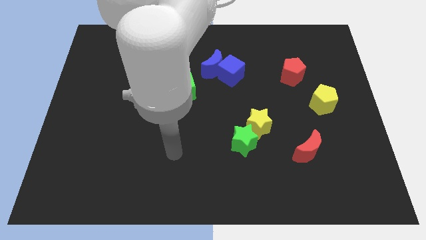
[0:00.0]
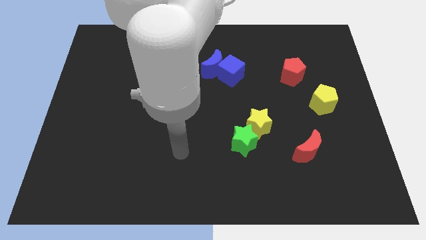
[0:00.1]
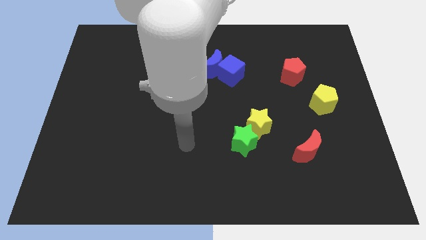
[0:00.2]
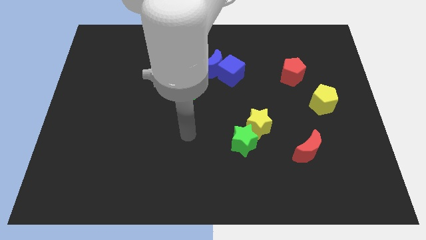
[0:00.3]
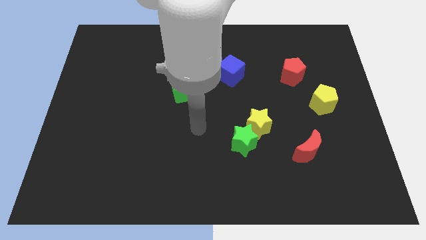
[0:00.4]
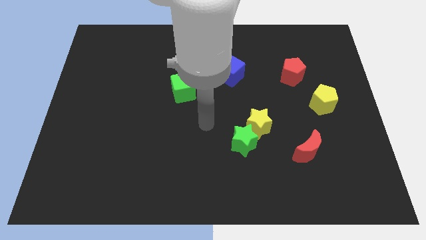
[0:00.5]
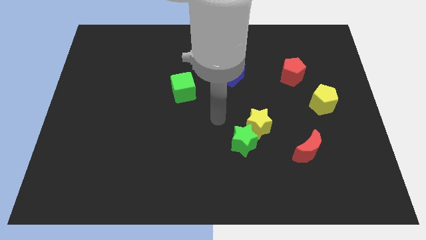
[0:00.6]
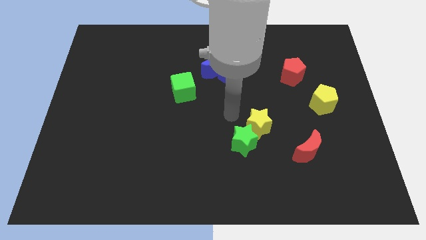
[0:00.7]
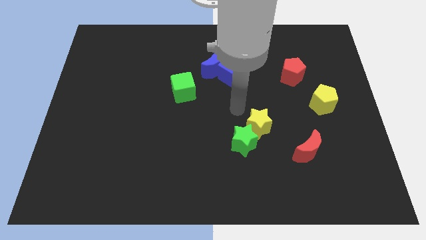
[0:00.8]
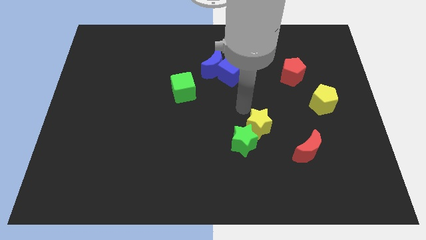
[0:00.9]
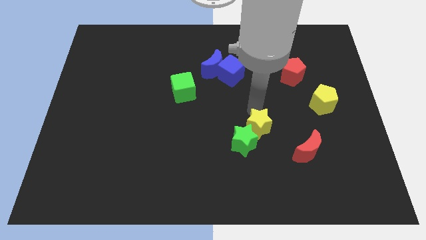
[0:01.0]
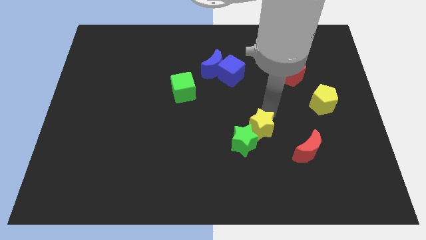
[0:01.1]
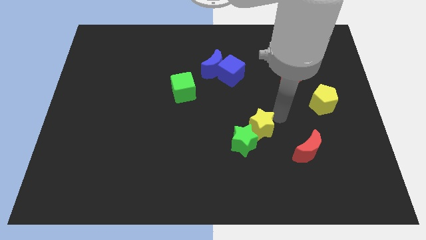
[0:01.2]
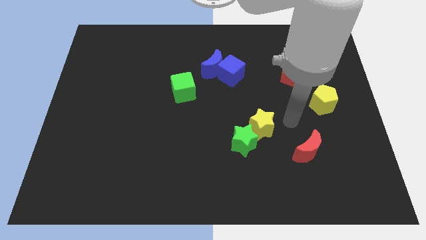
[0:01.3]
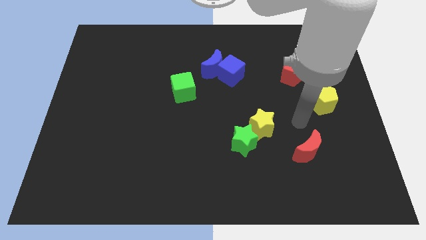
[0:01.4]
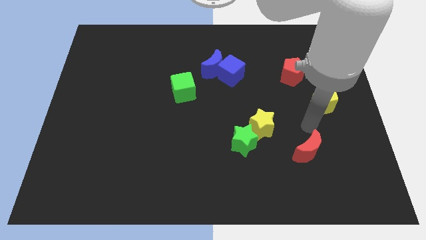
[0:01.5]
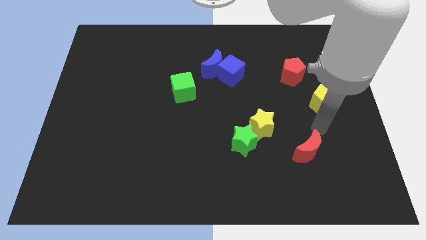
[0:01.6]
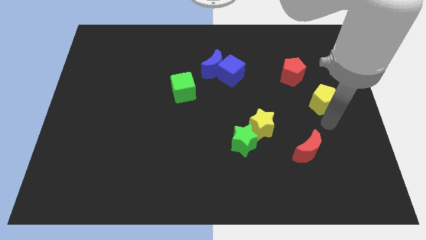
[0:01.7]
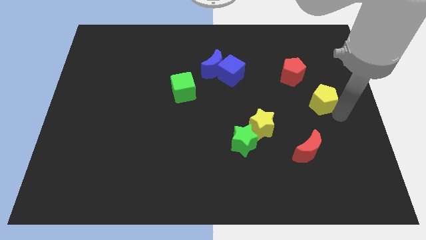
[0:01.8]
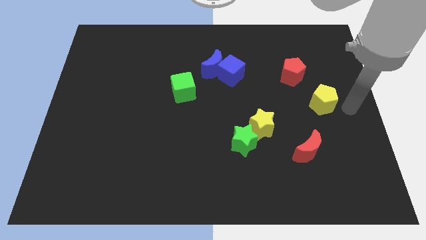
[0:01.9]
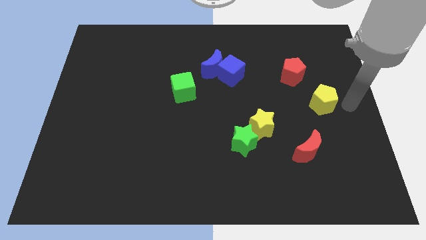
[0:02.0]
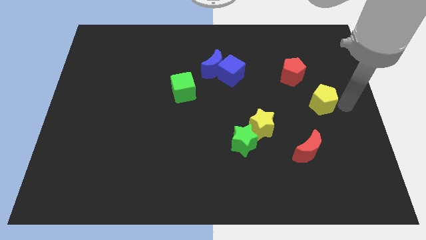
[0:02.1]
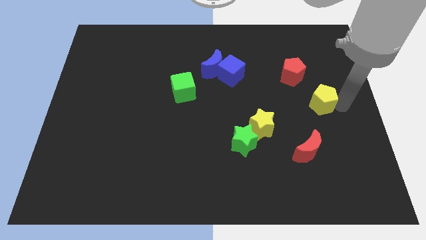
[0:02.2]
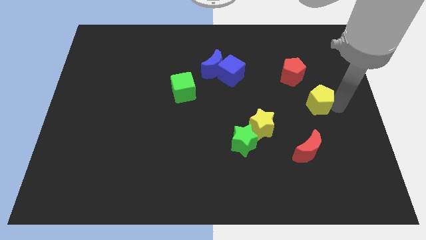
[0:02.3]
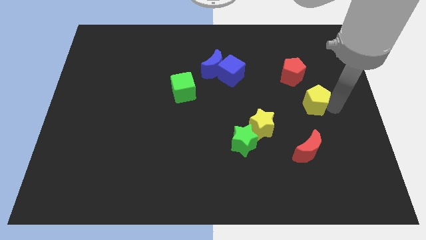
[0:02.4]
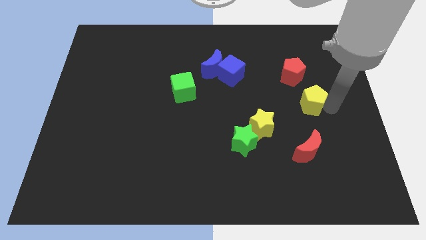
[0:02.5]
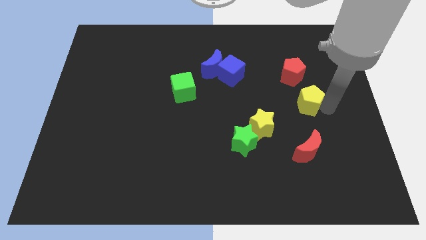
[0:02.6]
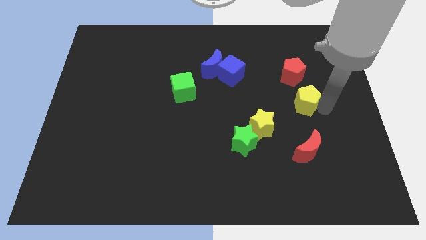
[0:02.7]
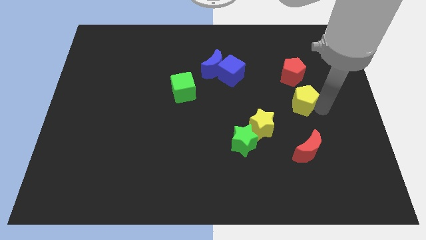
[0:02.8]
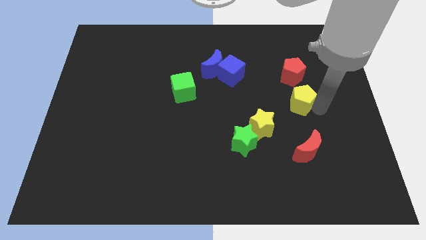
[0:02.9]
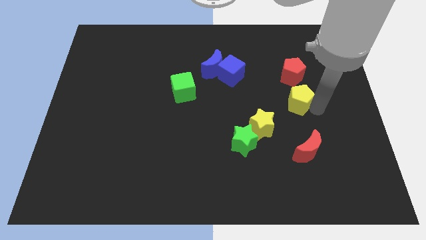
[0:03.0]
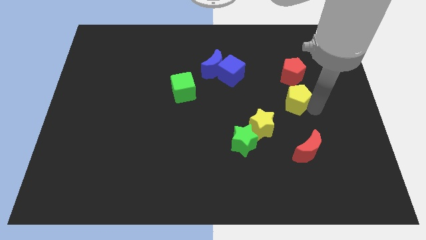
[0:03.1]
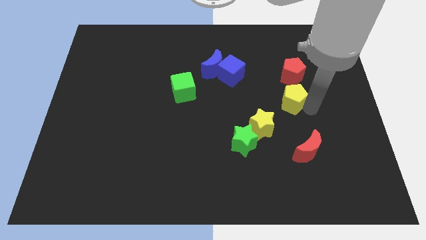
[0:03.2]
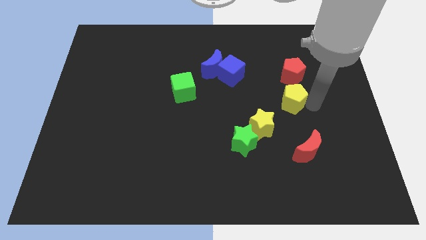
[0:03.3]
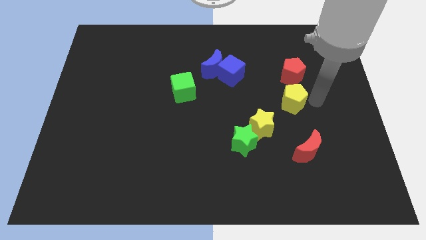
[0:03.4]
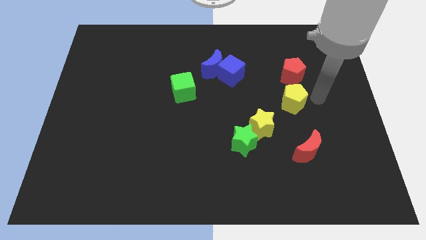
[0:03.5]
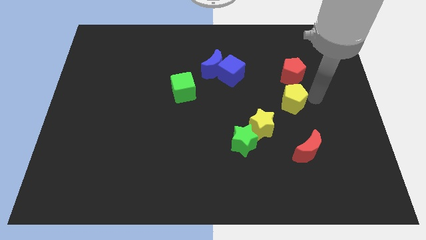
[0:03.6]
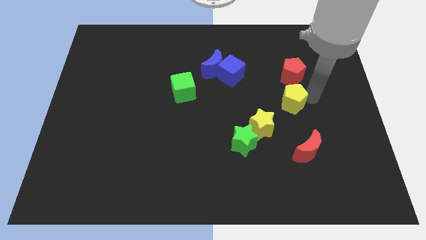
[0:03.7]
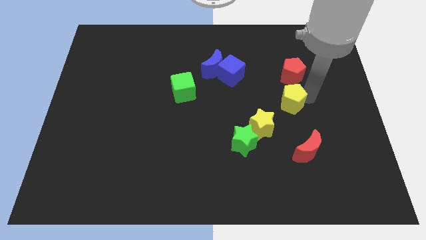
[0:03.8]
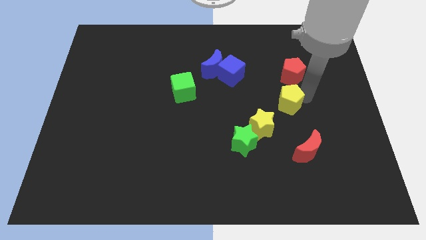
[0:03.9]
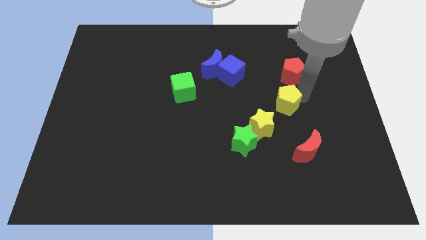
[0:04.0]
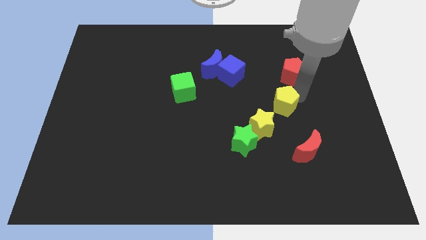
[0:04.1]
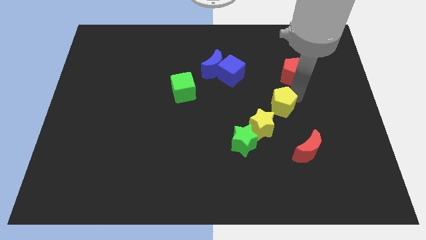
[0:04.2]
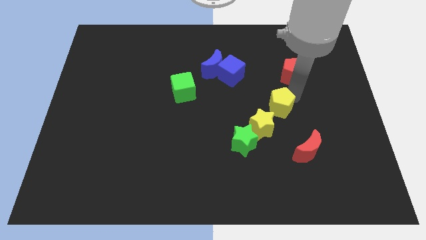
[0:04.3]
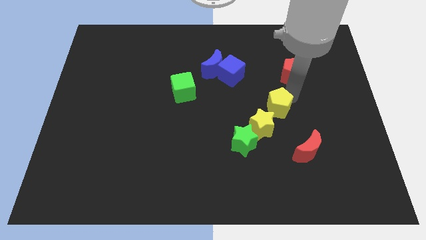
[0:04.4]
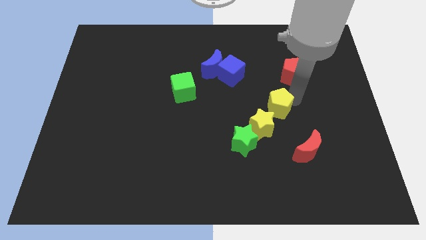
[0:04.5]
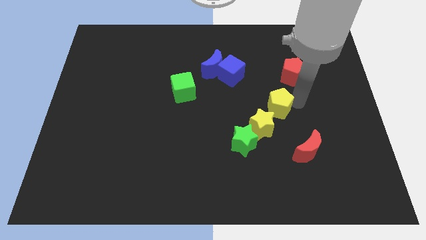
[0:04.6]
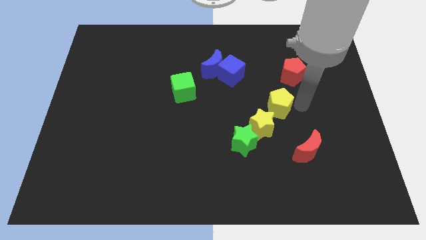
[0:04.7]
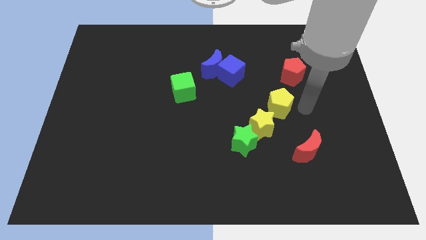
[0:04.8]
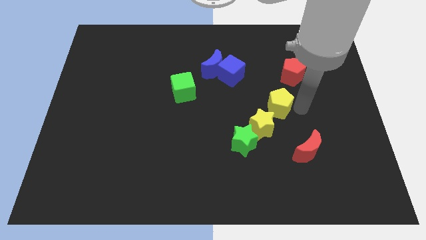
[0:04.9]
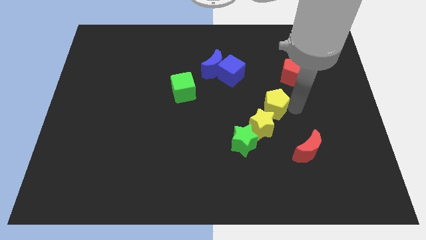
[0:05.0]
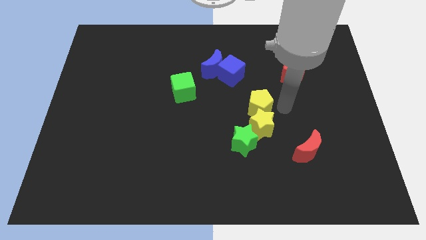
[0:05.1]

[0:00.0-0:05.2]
push the yellow pentagon to the middle of the board

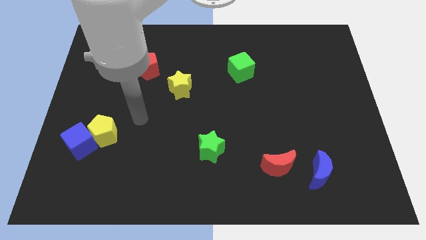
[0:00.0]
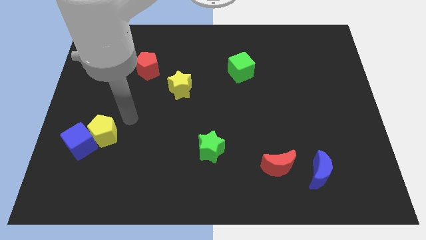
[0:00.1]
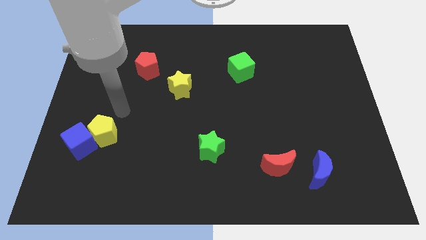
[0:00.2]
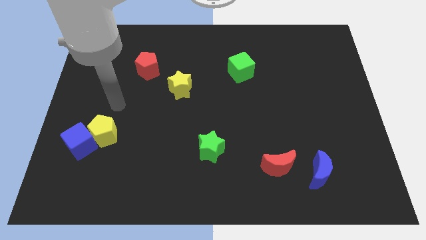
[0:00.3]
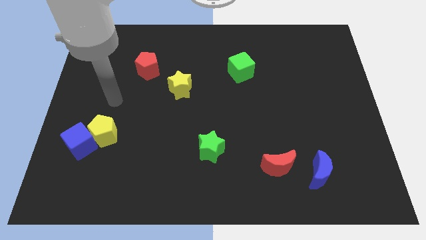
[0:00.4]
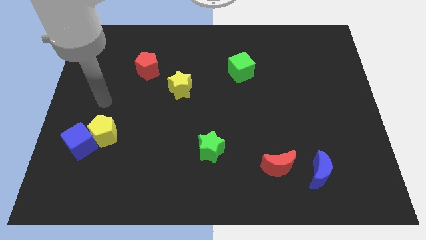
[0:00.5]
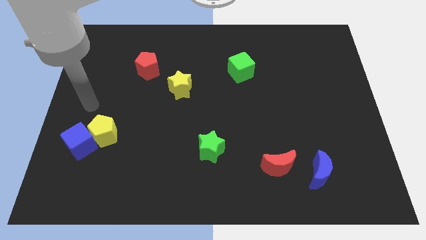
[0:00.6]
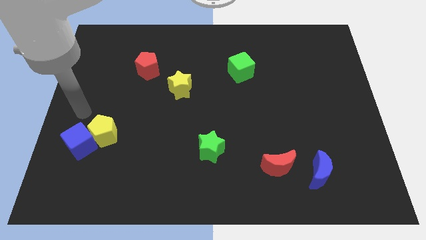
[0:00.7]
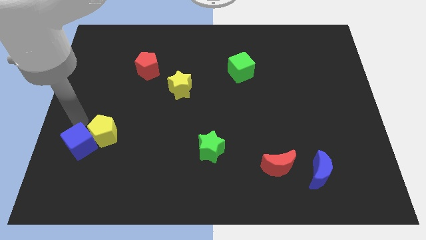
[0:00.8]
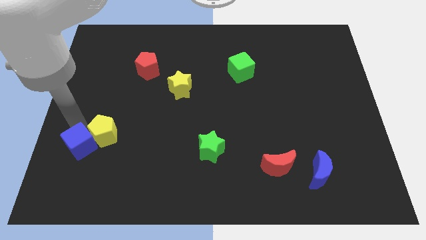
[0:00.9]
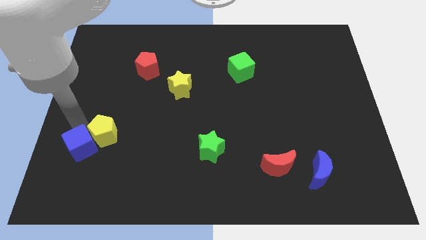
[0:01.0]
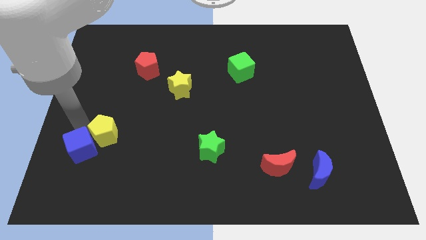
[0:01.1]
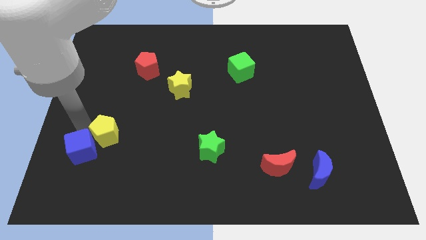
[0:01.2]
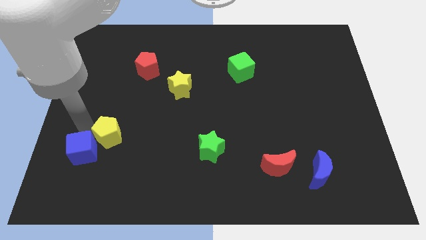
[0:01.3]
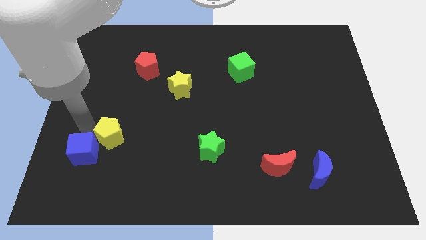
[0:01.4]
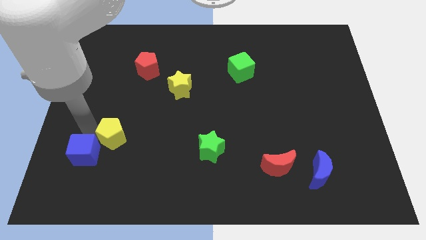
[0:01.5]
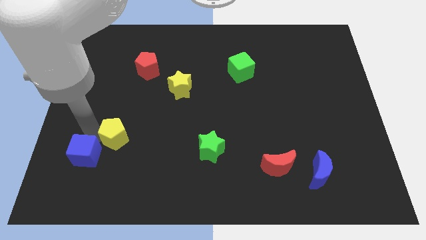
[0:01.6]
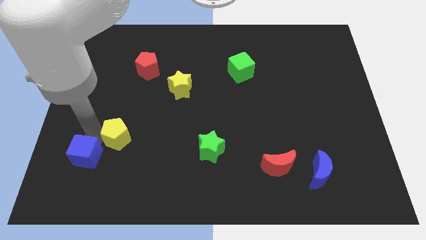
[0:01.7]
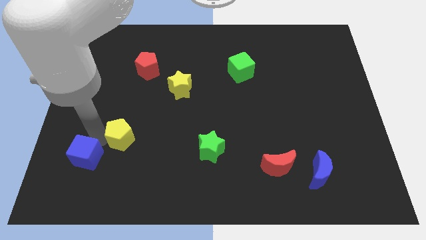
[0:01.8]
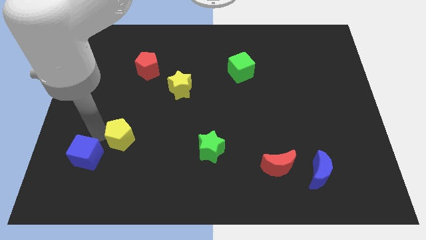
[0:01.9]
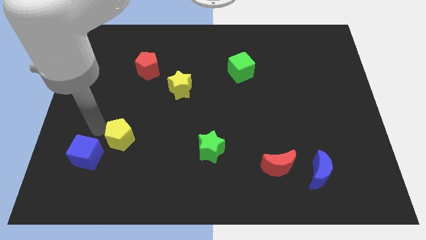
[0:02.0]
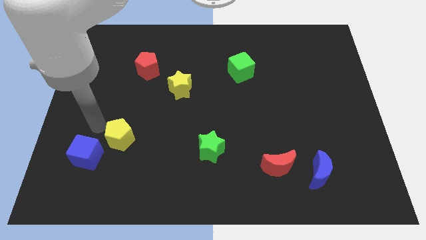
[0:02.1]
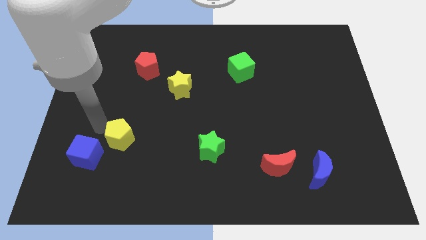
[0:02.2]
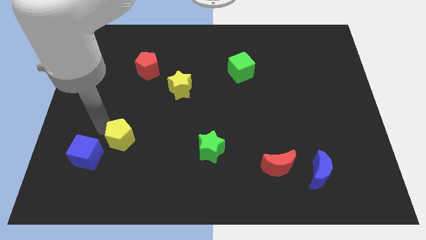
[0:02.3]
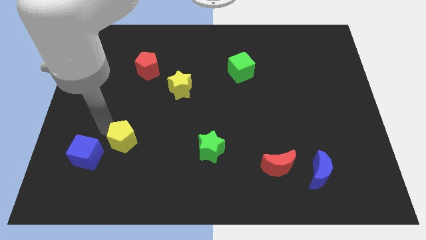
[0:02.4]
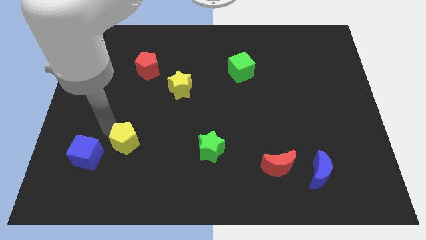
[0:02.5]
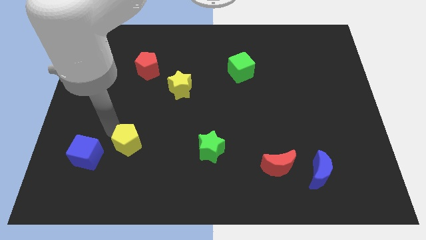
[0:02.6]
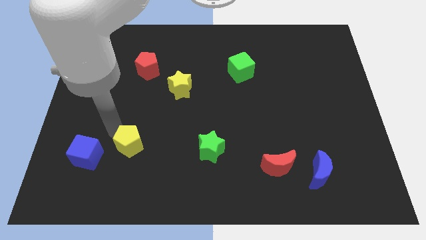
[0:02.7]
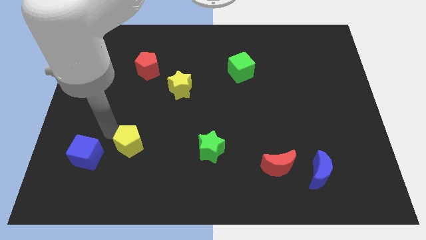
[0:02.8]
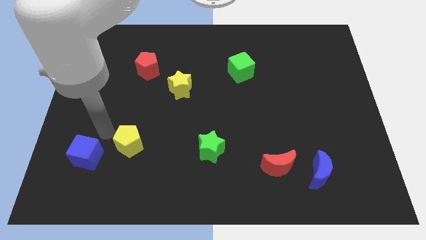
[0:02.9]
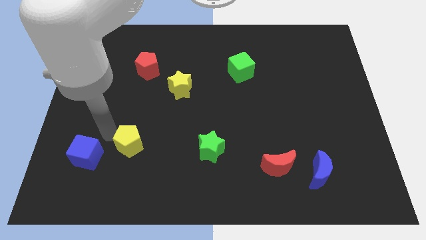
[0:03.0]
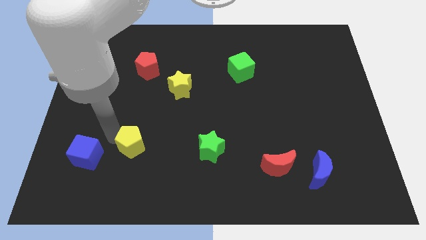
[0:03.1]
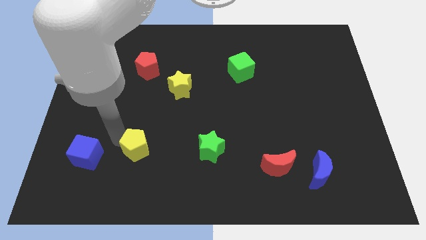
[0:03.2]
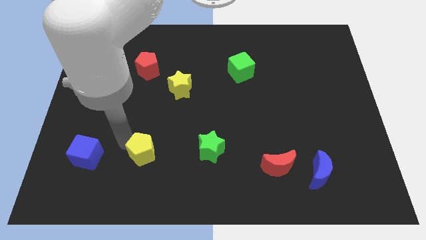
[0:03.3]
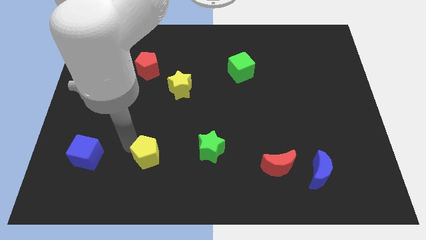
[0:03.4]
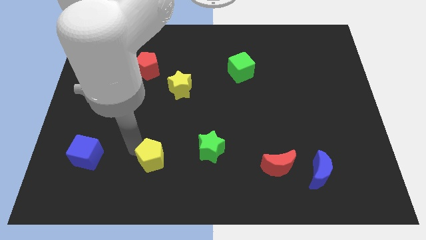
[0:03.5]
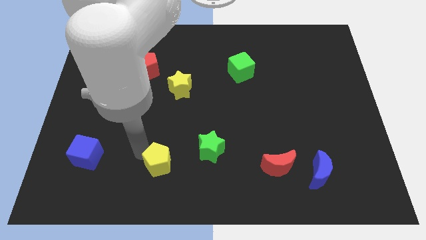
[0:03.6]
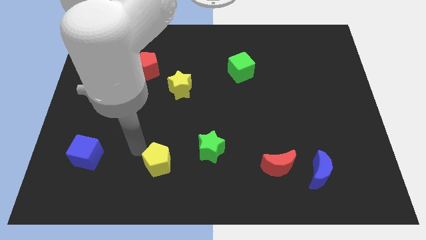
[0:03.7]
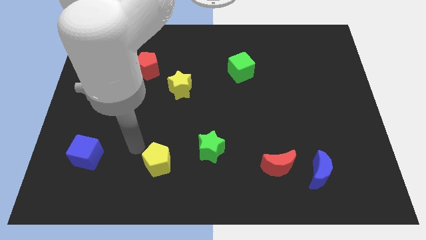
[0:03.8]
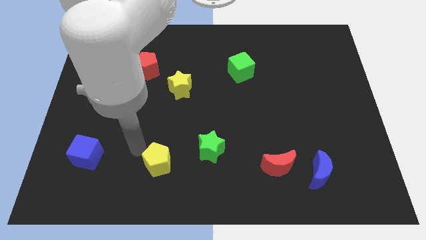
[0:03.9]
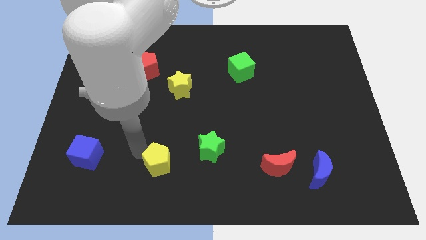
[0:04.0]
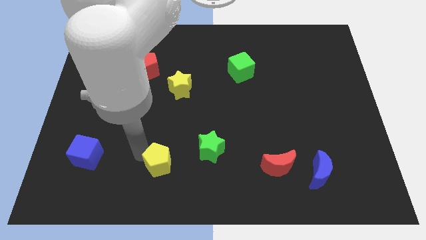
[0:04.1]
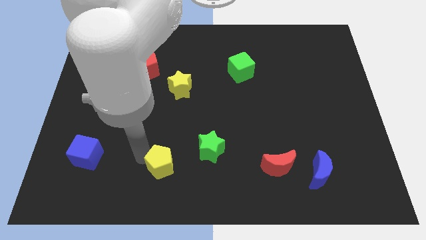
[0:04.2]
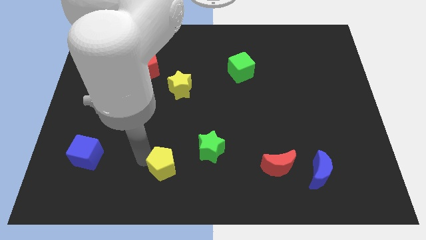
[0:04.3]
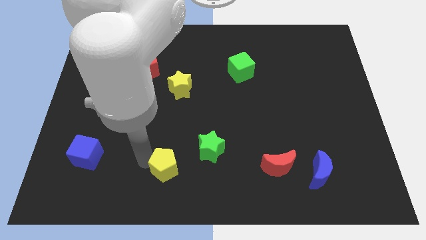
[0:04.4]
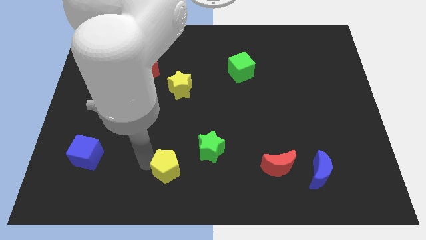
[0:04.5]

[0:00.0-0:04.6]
slide the yellow pentagon to the bottom side
